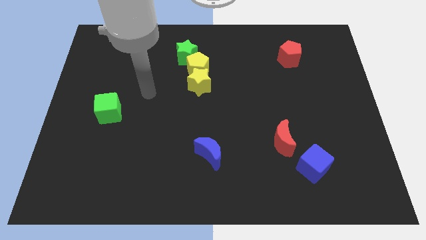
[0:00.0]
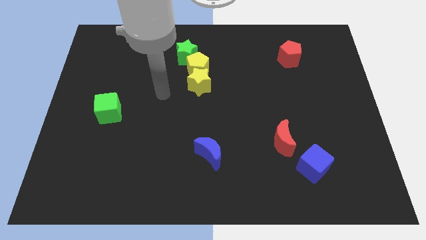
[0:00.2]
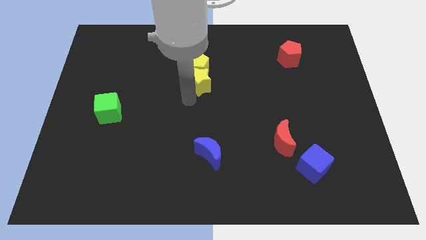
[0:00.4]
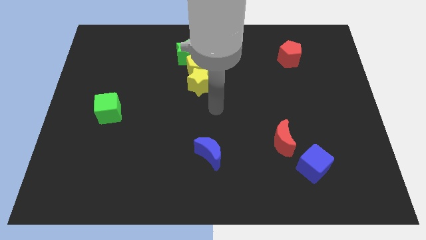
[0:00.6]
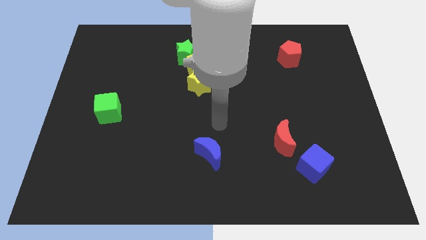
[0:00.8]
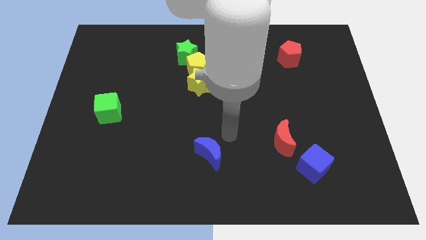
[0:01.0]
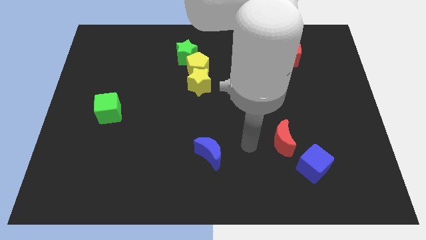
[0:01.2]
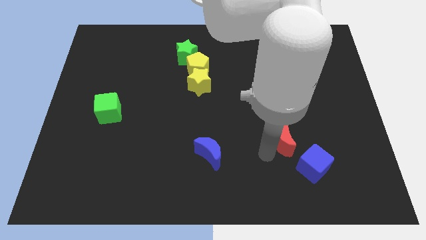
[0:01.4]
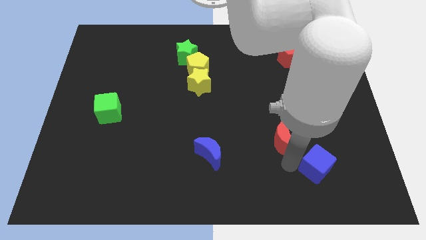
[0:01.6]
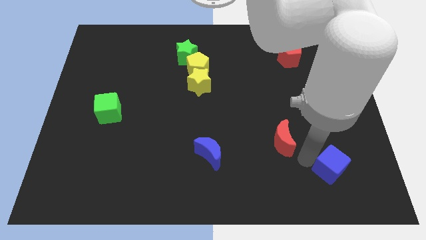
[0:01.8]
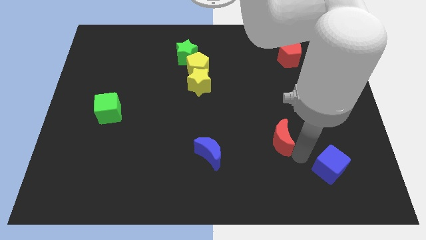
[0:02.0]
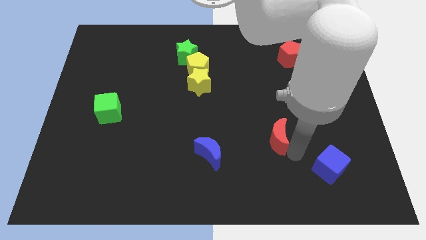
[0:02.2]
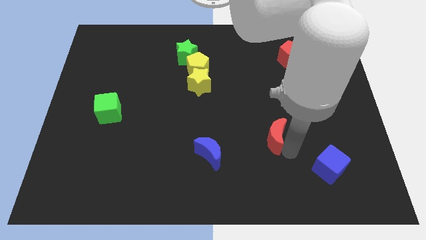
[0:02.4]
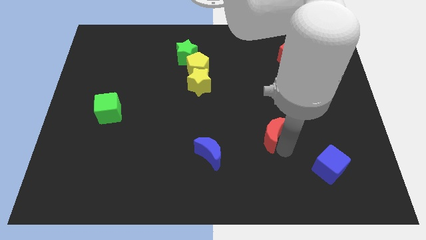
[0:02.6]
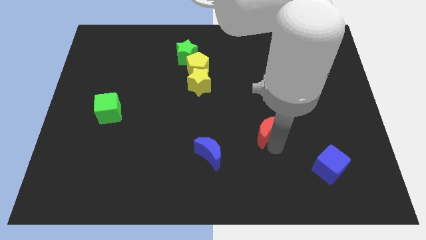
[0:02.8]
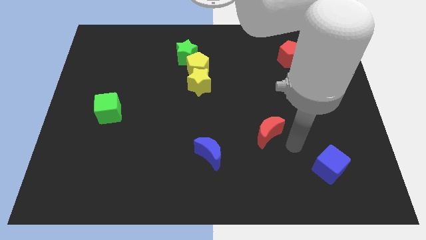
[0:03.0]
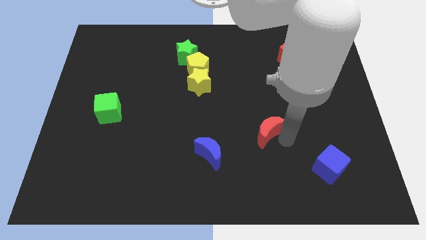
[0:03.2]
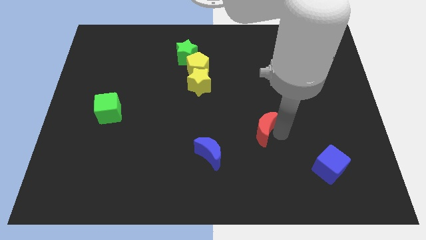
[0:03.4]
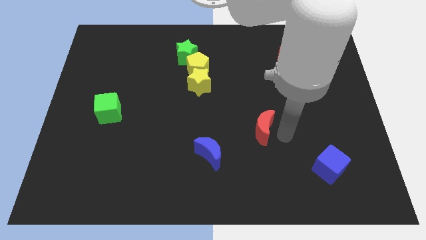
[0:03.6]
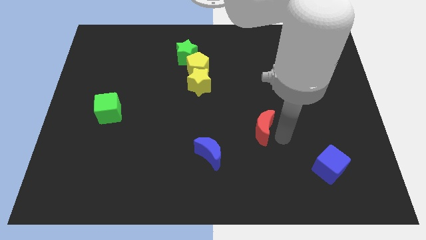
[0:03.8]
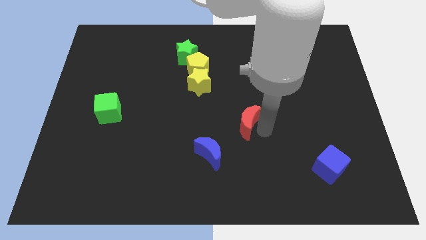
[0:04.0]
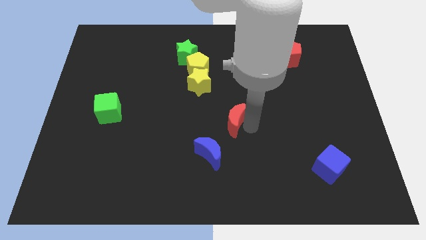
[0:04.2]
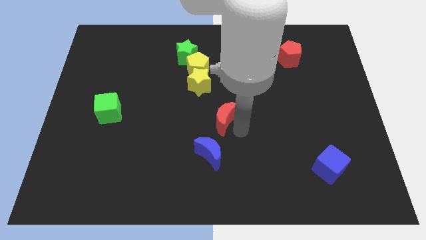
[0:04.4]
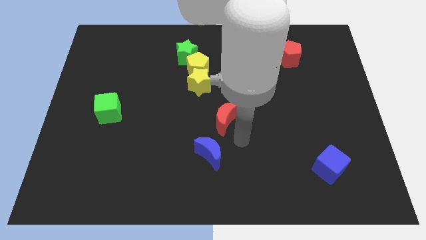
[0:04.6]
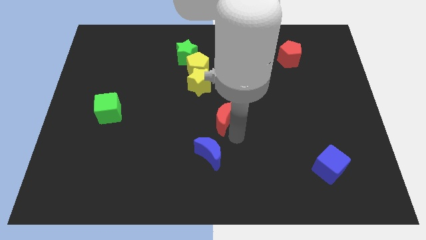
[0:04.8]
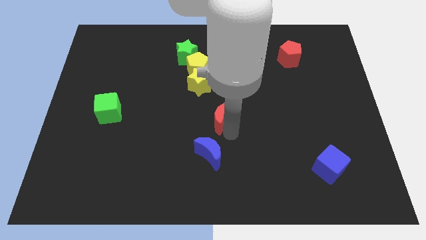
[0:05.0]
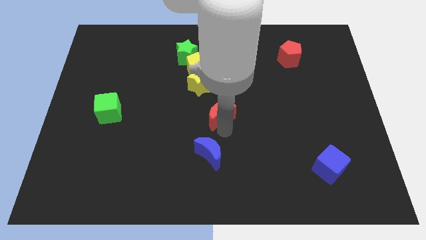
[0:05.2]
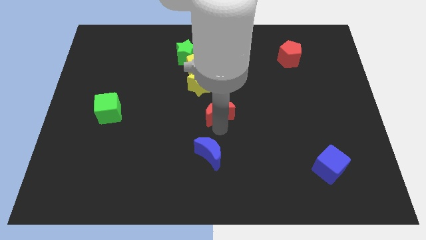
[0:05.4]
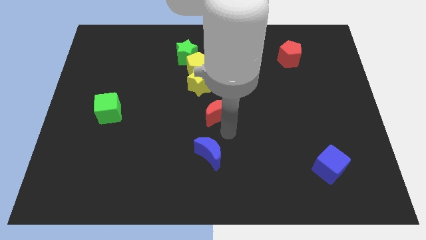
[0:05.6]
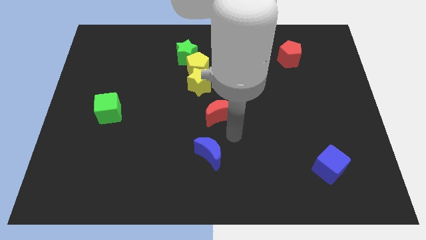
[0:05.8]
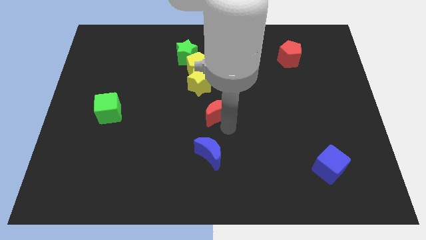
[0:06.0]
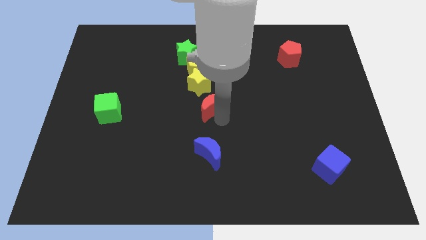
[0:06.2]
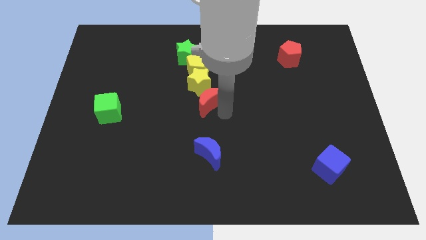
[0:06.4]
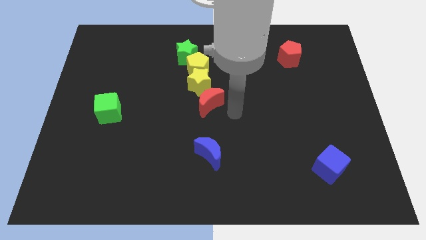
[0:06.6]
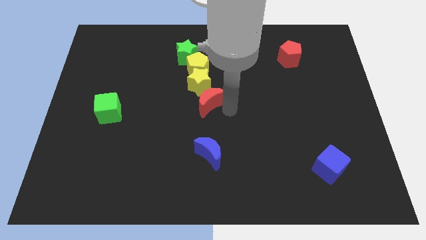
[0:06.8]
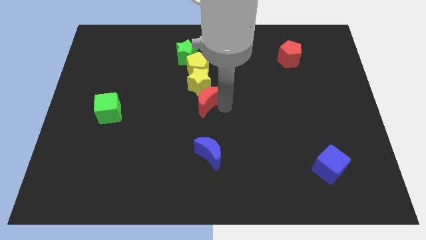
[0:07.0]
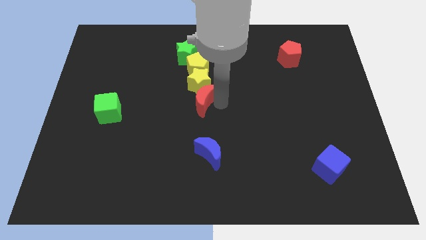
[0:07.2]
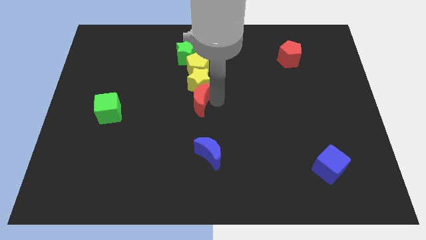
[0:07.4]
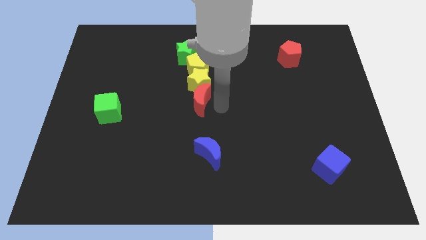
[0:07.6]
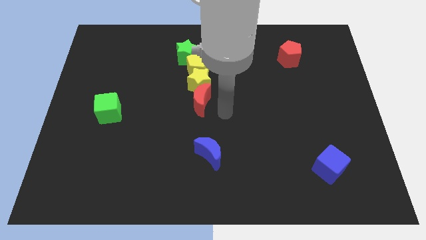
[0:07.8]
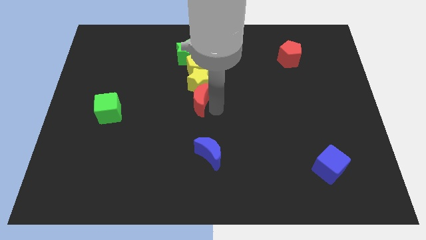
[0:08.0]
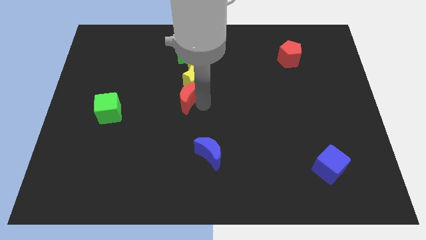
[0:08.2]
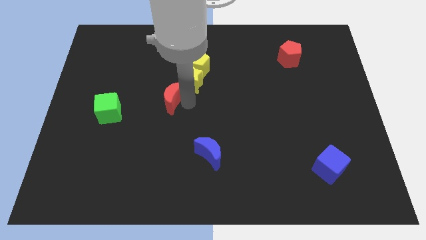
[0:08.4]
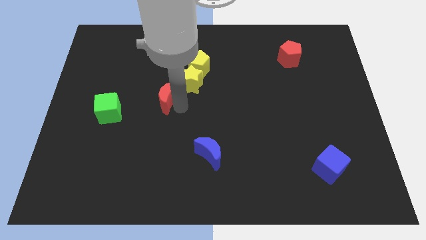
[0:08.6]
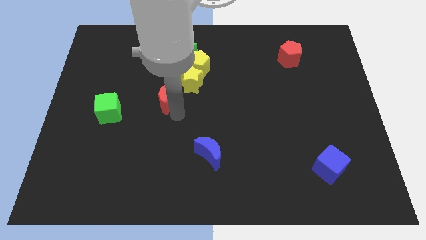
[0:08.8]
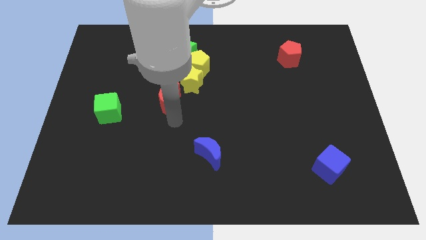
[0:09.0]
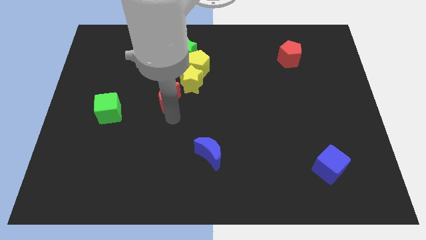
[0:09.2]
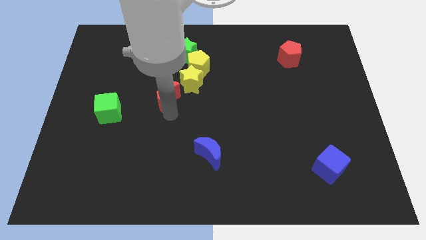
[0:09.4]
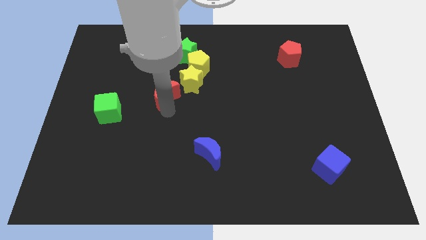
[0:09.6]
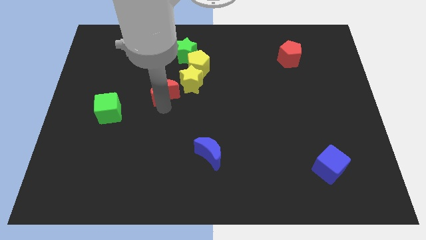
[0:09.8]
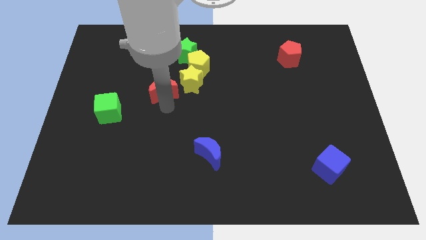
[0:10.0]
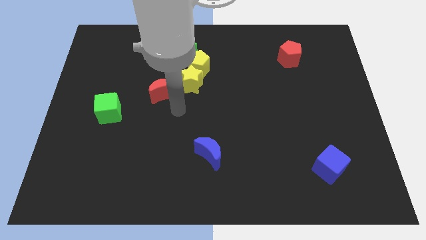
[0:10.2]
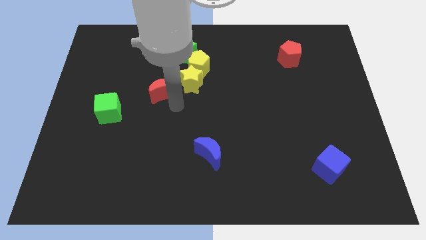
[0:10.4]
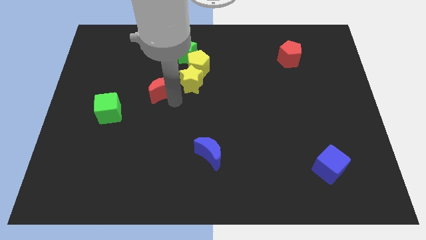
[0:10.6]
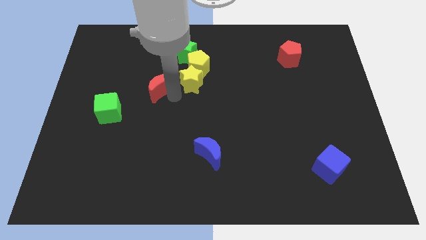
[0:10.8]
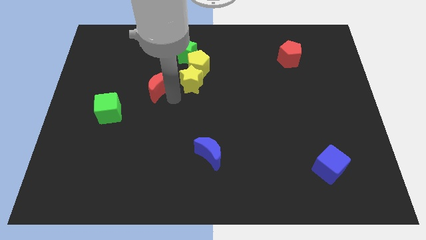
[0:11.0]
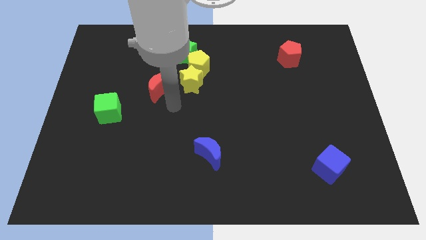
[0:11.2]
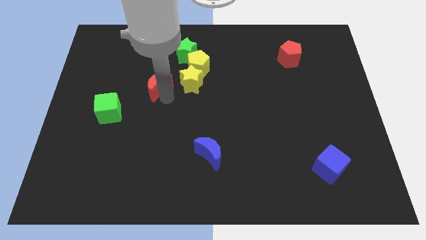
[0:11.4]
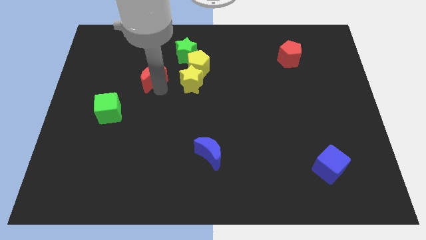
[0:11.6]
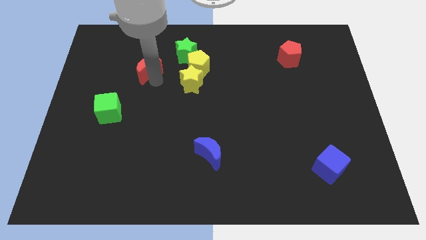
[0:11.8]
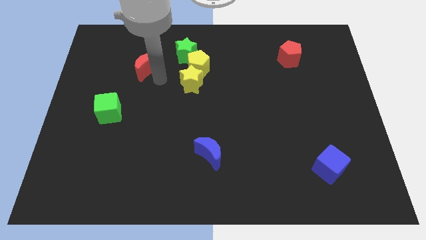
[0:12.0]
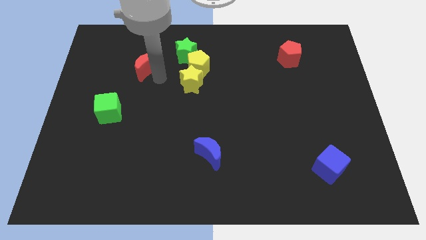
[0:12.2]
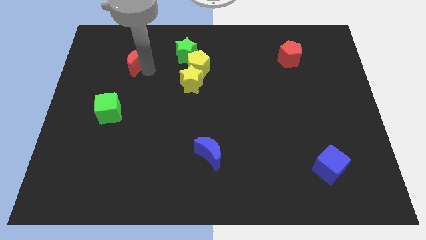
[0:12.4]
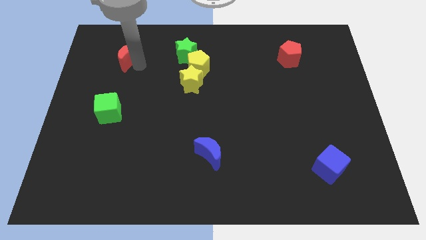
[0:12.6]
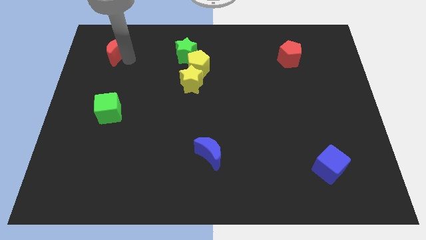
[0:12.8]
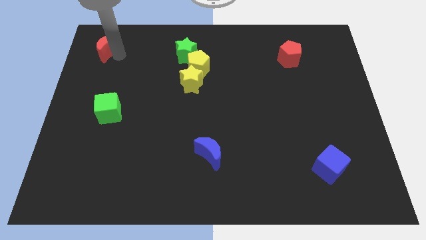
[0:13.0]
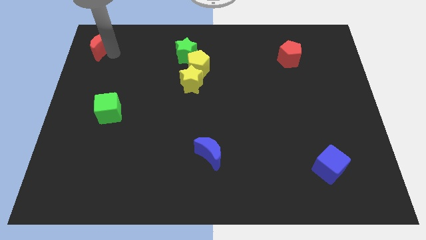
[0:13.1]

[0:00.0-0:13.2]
push the red moon to the upper left corner

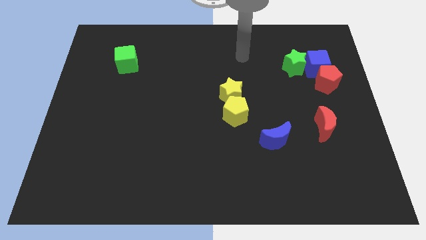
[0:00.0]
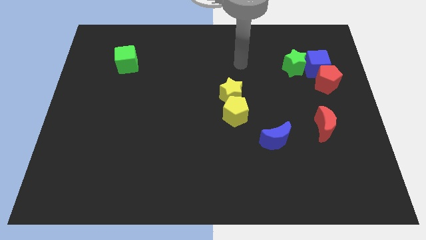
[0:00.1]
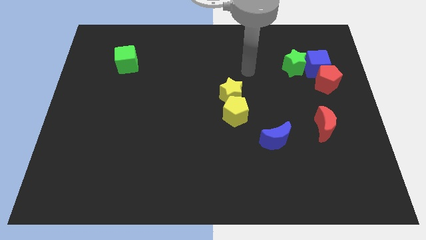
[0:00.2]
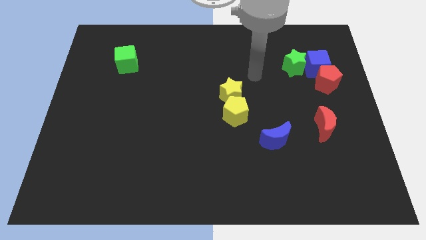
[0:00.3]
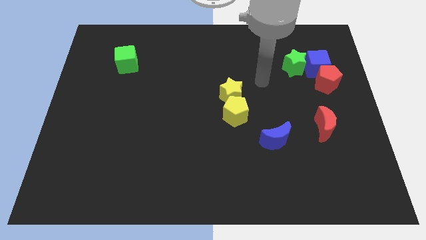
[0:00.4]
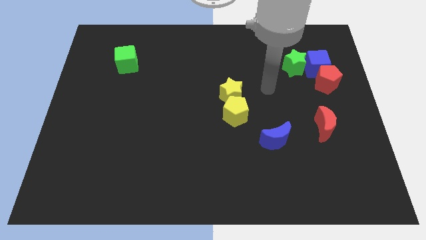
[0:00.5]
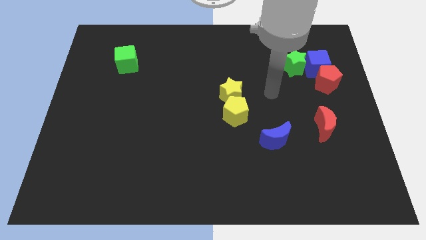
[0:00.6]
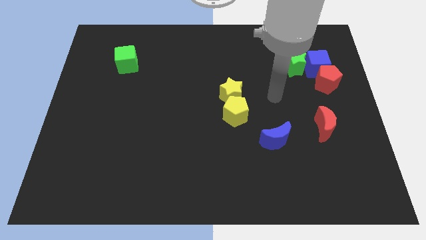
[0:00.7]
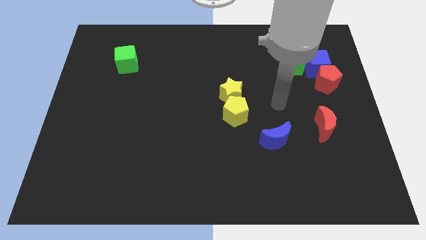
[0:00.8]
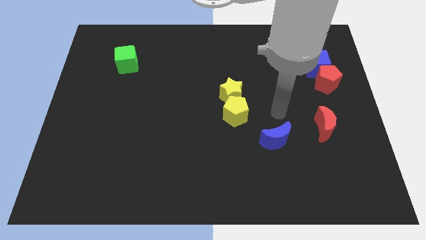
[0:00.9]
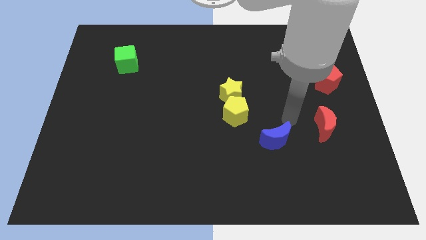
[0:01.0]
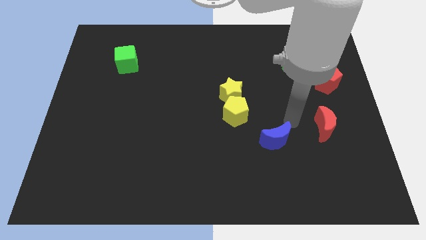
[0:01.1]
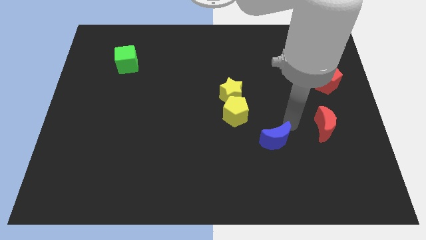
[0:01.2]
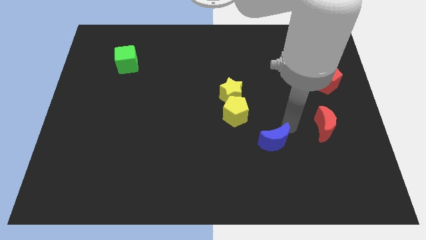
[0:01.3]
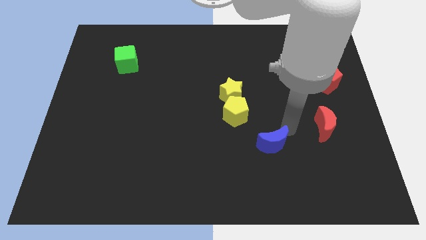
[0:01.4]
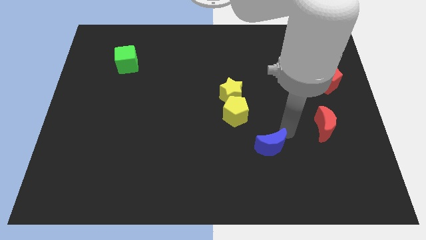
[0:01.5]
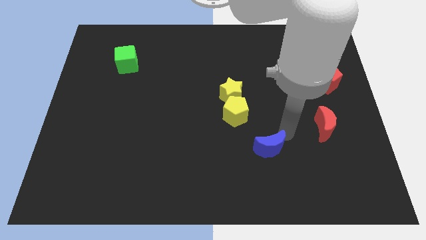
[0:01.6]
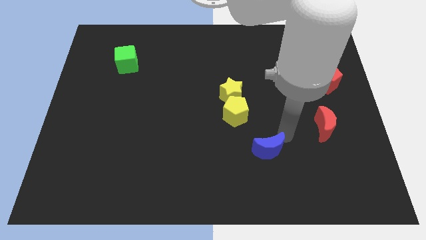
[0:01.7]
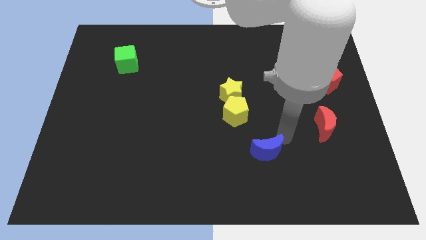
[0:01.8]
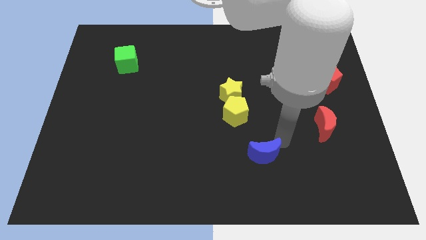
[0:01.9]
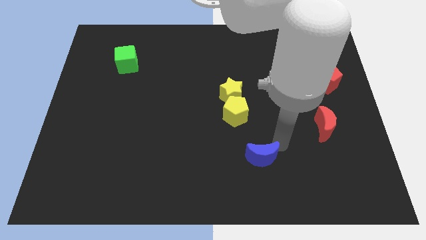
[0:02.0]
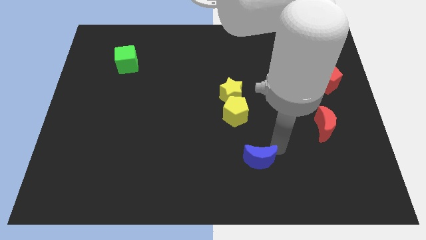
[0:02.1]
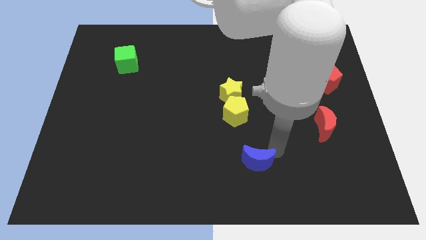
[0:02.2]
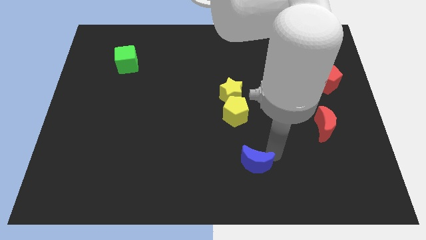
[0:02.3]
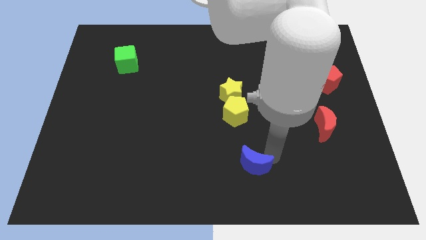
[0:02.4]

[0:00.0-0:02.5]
push the blue moon to the bottom
